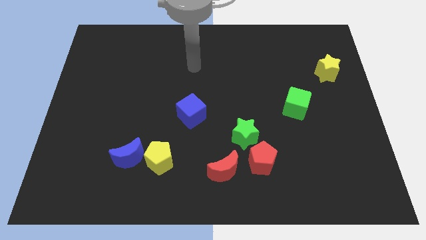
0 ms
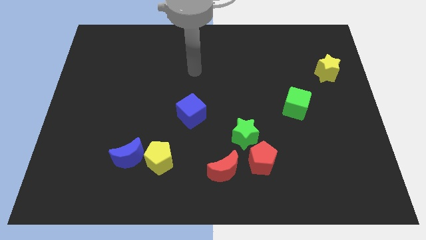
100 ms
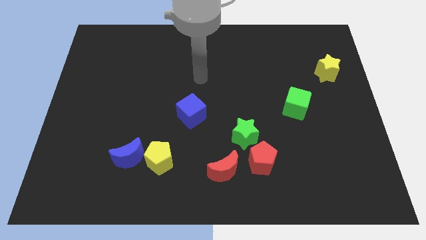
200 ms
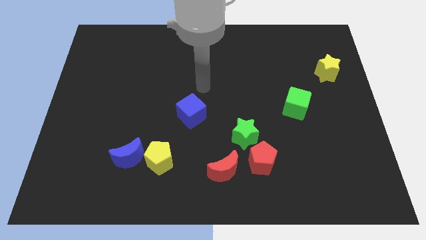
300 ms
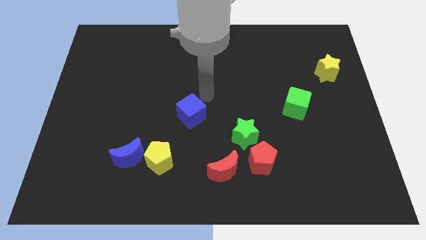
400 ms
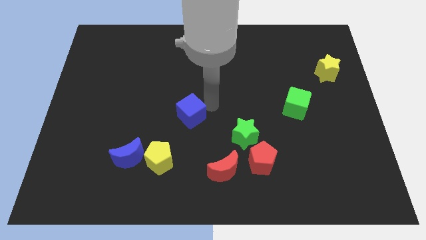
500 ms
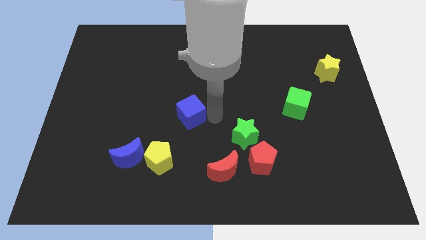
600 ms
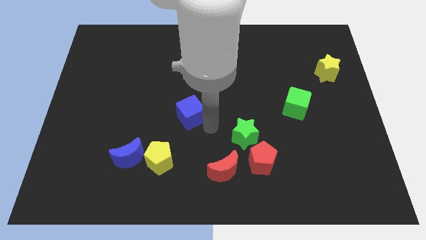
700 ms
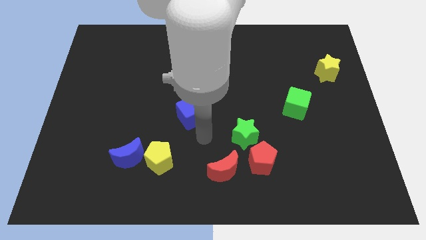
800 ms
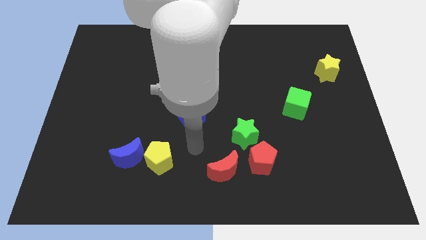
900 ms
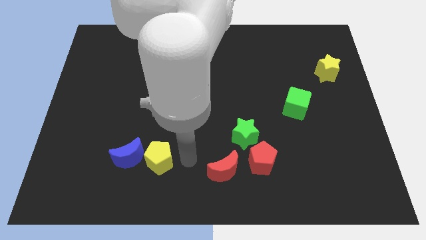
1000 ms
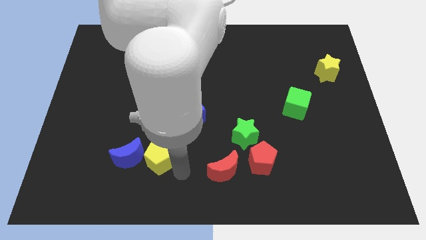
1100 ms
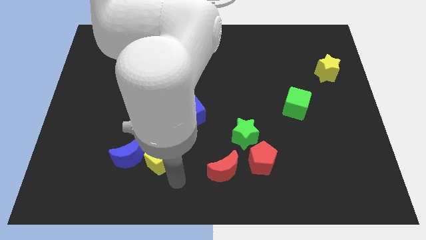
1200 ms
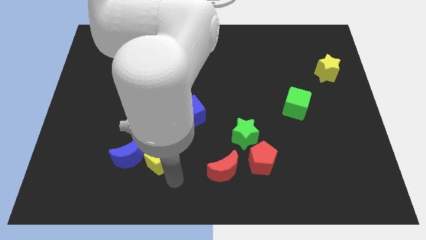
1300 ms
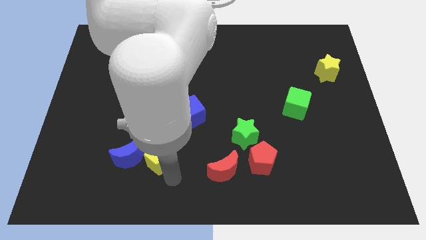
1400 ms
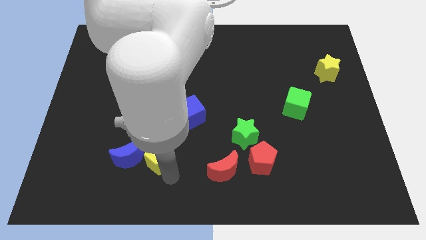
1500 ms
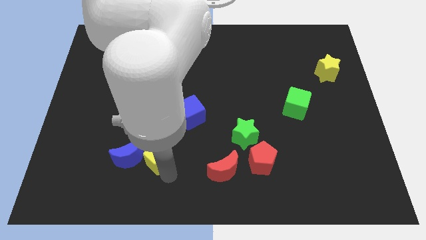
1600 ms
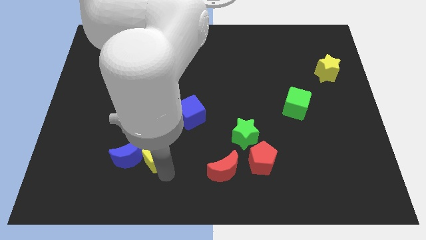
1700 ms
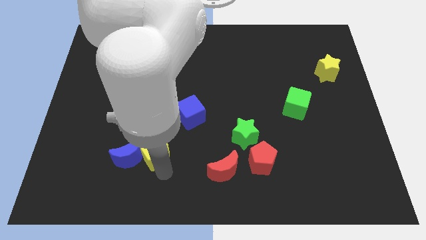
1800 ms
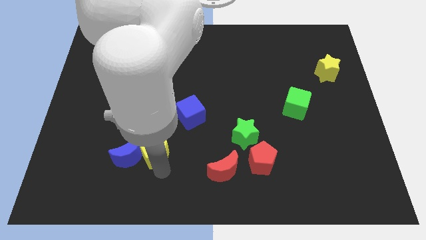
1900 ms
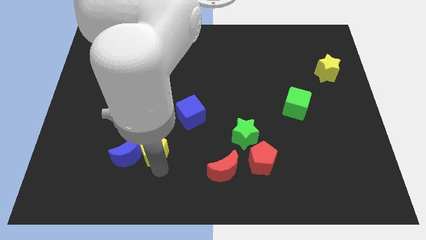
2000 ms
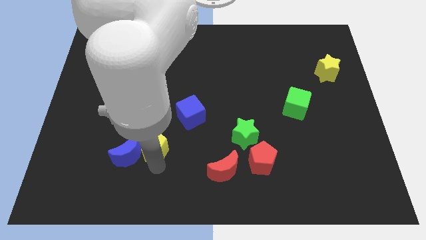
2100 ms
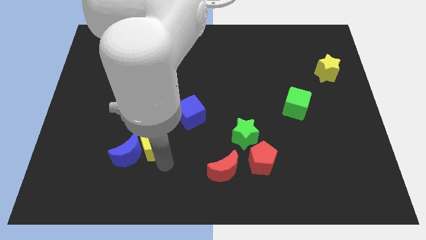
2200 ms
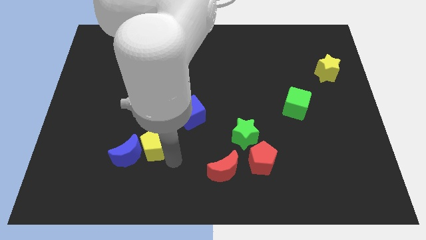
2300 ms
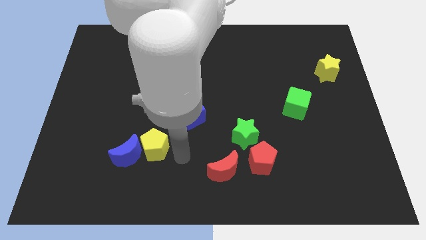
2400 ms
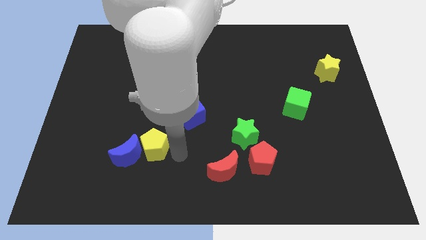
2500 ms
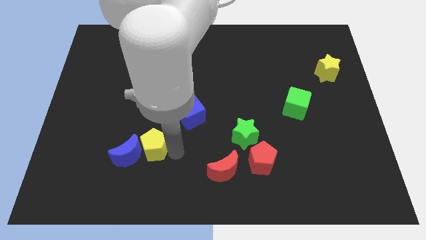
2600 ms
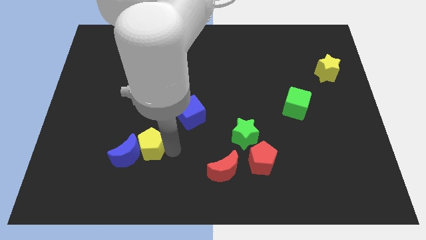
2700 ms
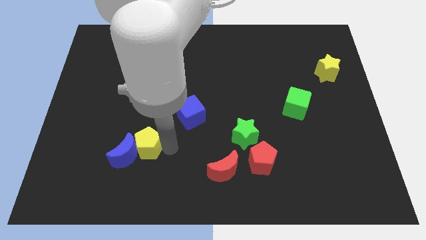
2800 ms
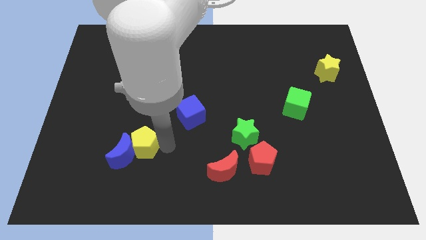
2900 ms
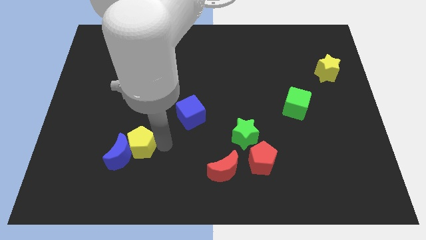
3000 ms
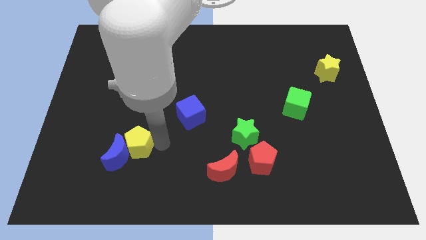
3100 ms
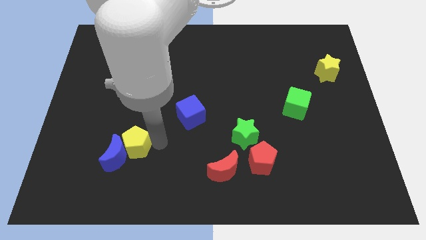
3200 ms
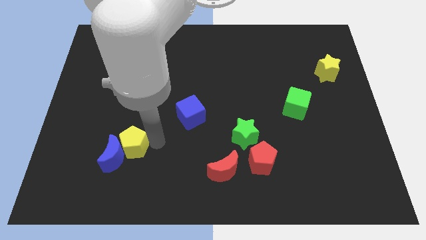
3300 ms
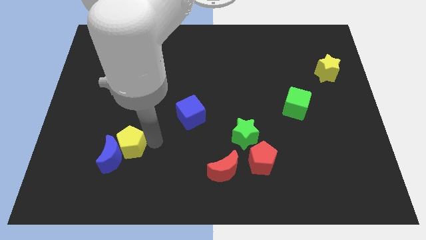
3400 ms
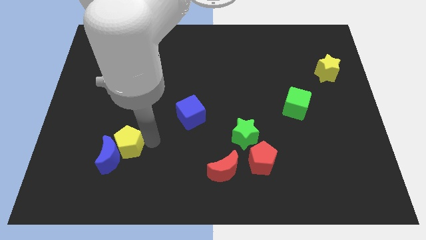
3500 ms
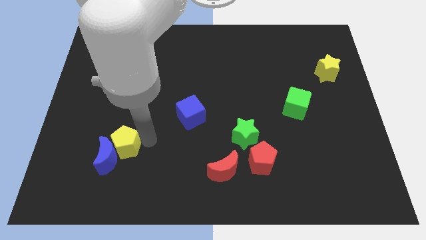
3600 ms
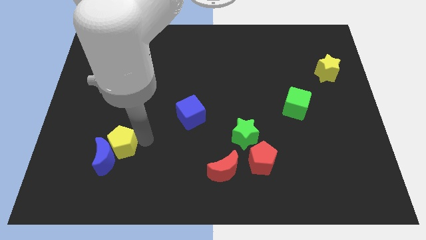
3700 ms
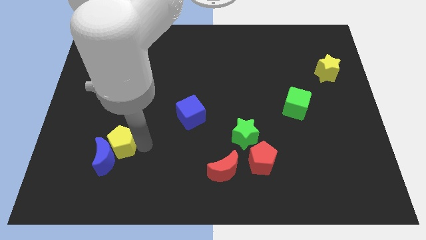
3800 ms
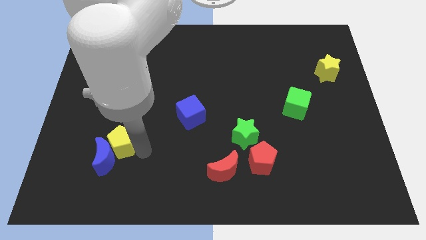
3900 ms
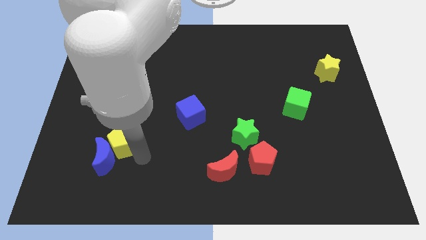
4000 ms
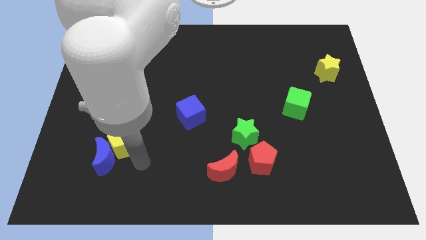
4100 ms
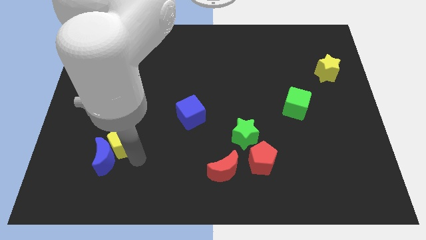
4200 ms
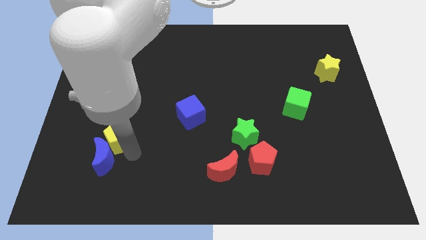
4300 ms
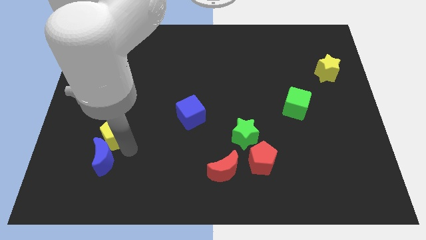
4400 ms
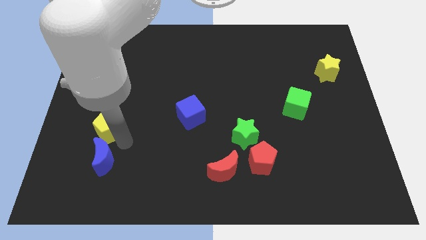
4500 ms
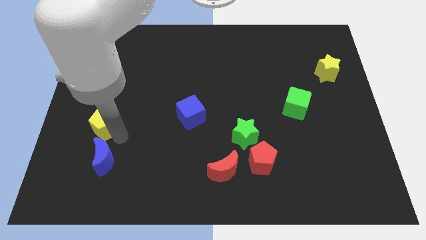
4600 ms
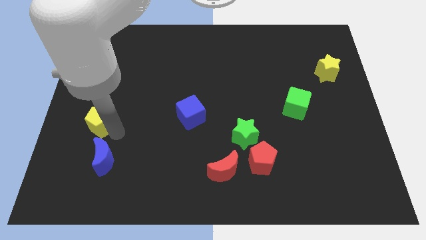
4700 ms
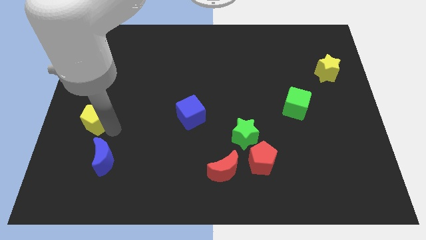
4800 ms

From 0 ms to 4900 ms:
put the yellow pentagon to the center left

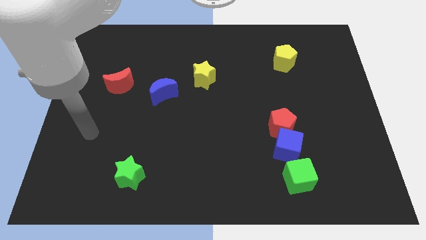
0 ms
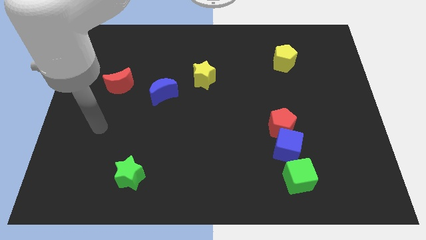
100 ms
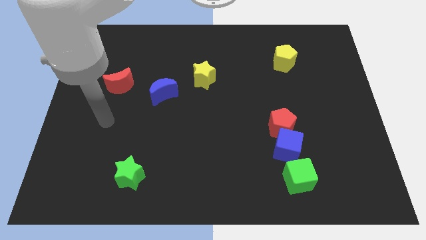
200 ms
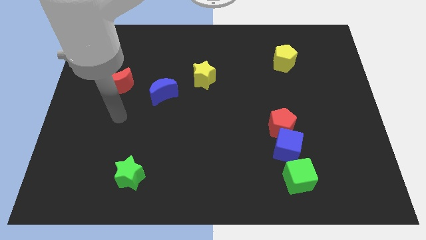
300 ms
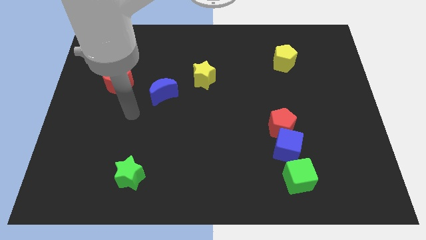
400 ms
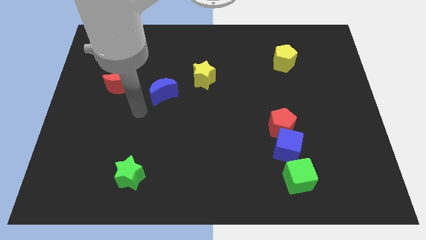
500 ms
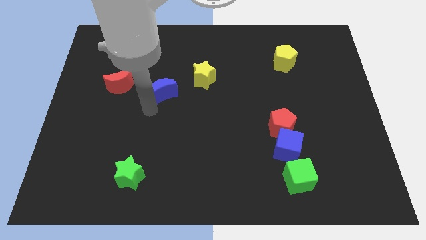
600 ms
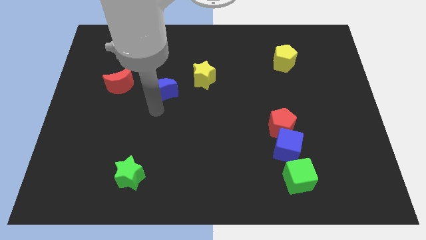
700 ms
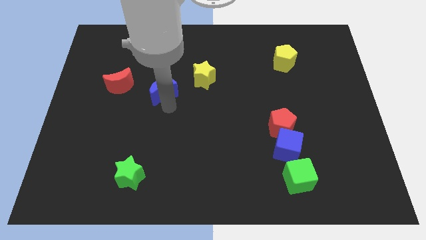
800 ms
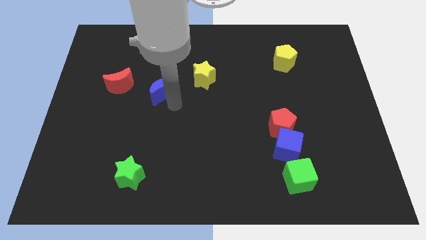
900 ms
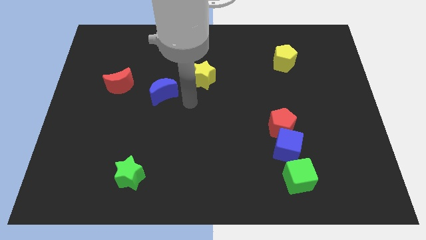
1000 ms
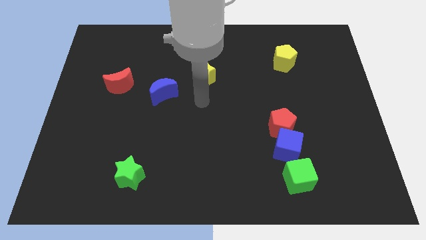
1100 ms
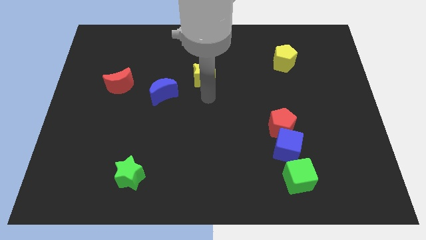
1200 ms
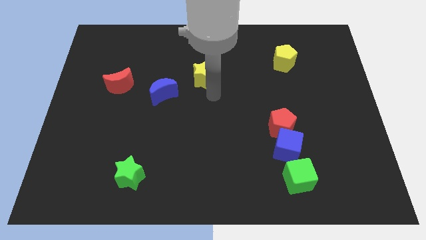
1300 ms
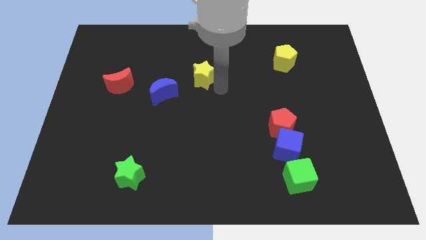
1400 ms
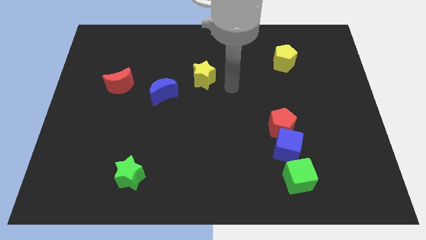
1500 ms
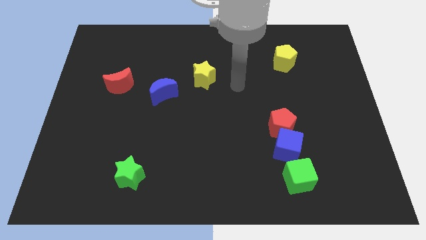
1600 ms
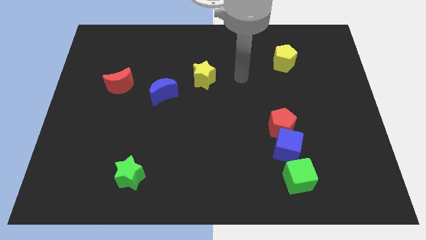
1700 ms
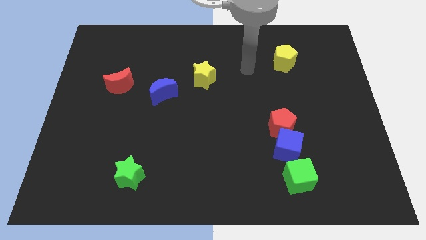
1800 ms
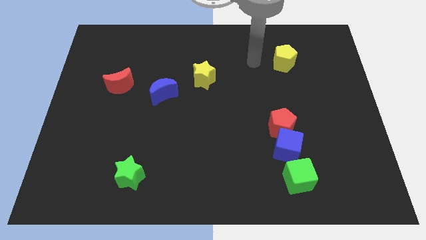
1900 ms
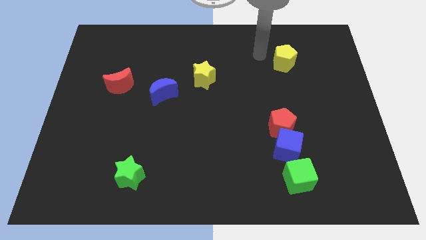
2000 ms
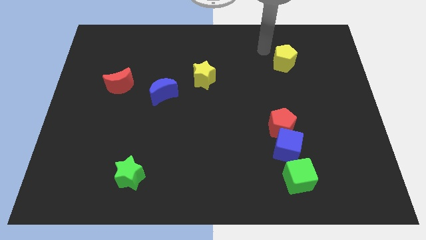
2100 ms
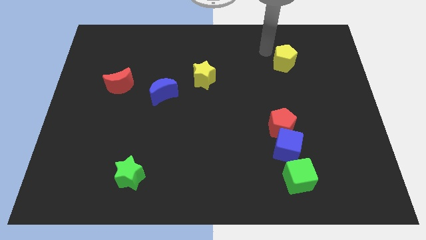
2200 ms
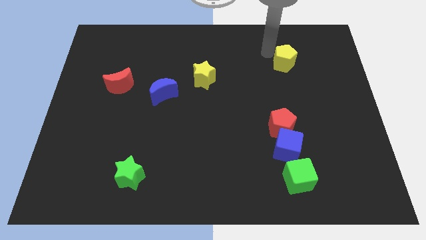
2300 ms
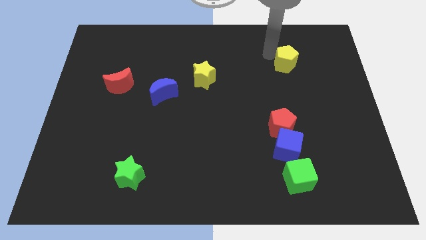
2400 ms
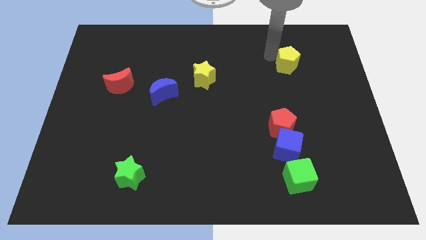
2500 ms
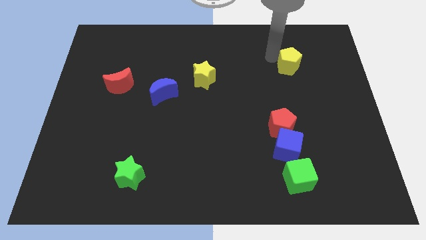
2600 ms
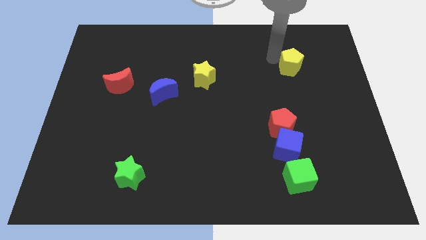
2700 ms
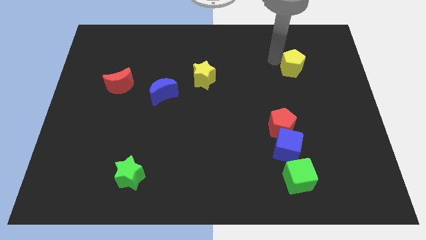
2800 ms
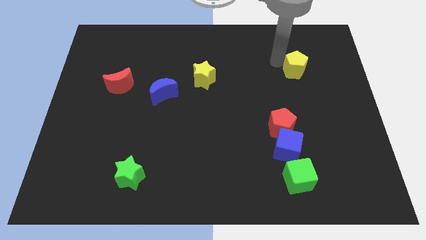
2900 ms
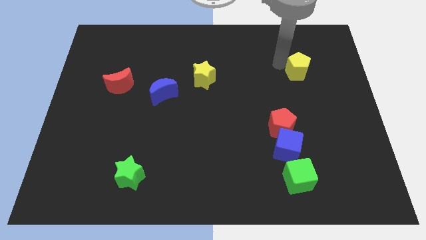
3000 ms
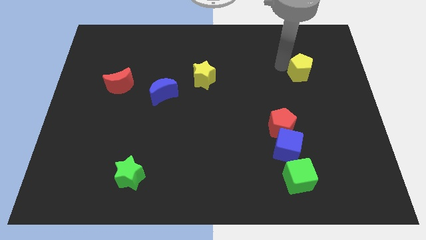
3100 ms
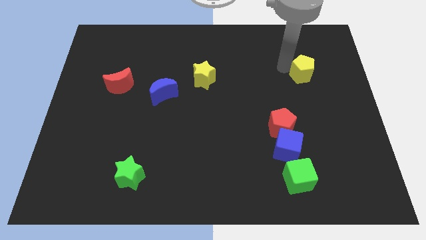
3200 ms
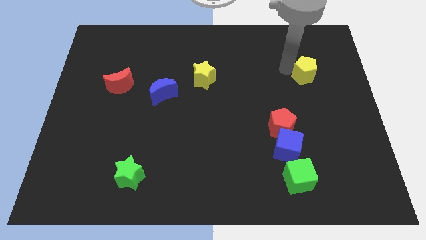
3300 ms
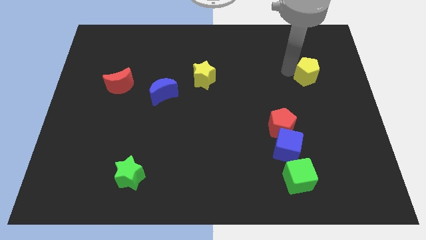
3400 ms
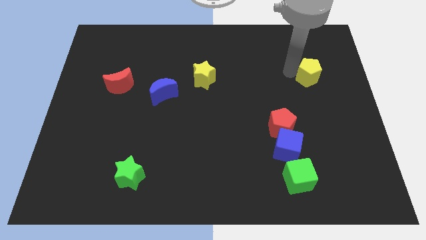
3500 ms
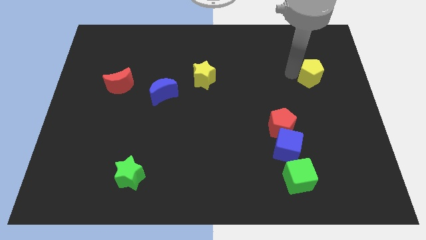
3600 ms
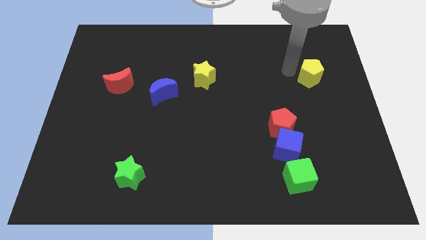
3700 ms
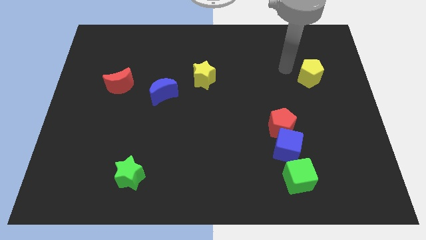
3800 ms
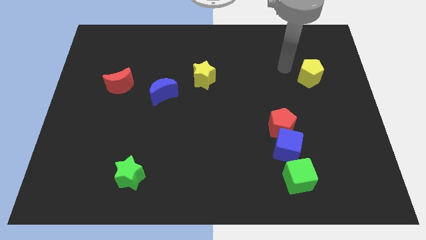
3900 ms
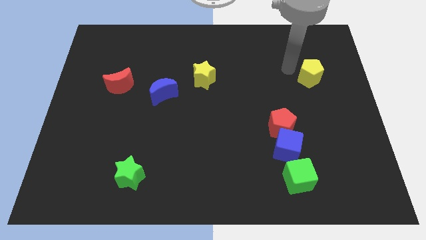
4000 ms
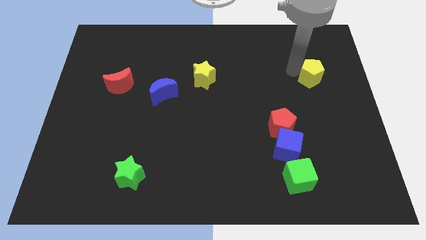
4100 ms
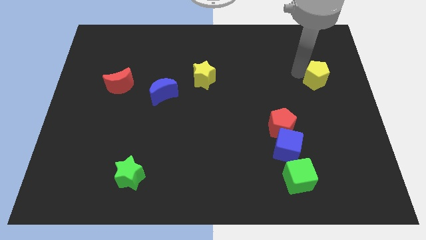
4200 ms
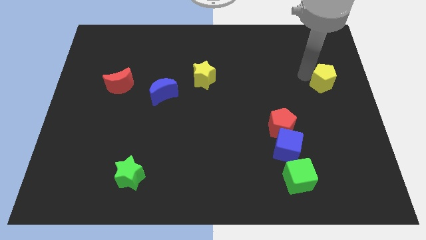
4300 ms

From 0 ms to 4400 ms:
move the yellow pentagon to the right side
